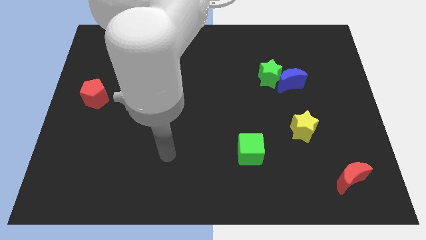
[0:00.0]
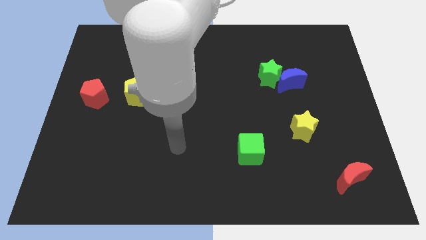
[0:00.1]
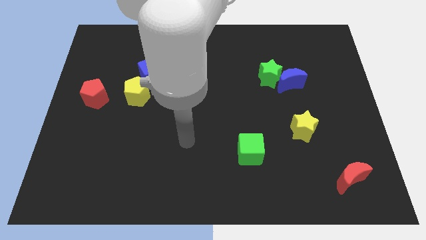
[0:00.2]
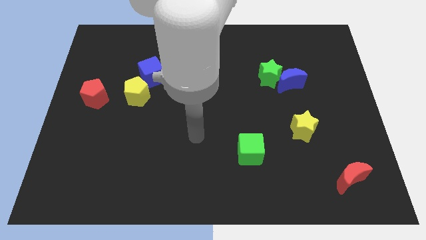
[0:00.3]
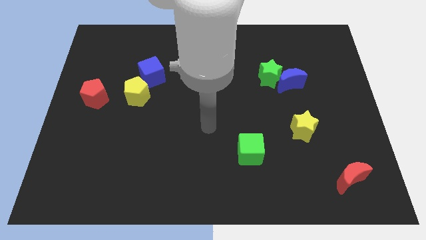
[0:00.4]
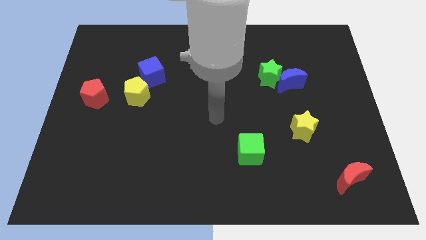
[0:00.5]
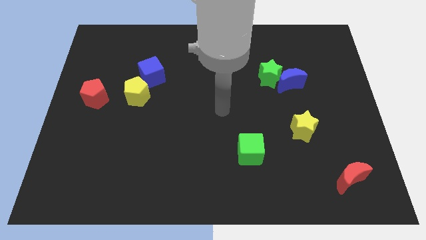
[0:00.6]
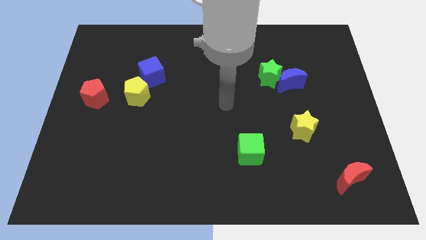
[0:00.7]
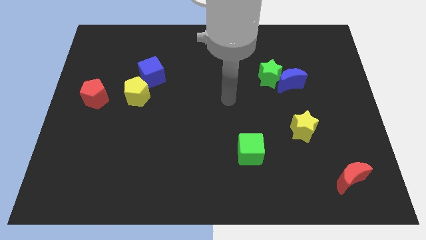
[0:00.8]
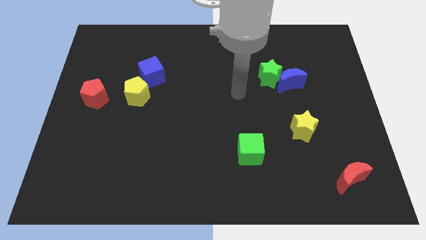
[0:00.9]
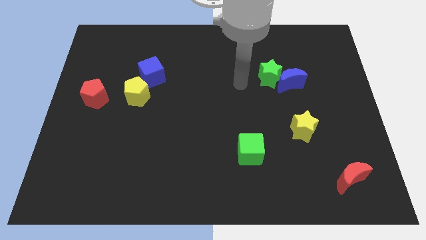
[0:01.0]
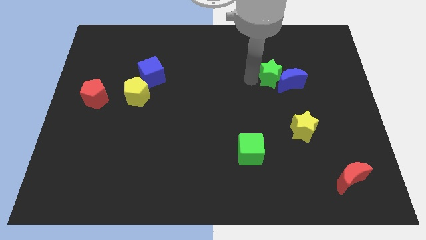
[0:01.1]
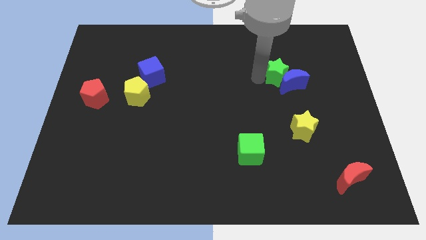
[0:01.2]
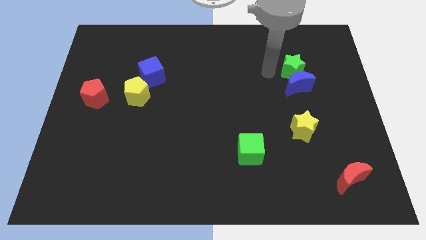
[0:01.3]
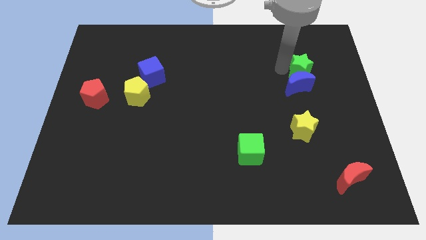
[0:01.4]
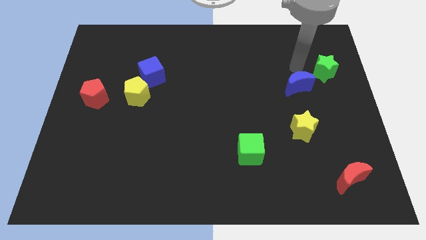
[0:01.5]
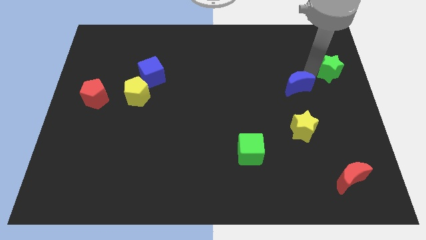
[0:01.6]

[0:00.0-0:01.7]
separate the blue moon from the green star

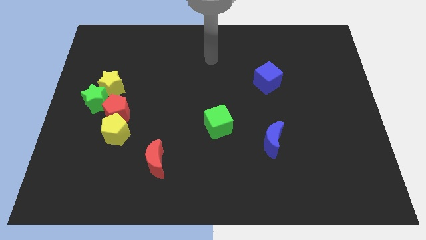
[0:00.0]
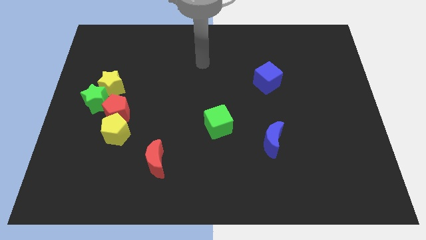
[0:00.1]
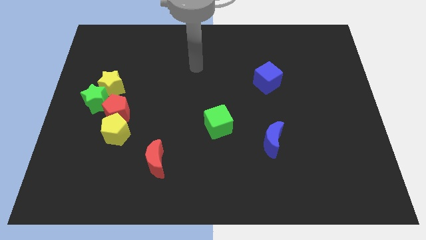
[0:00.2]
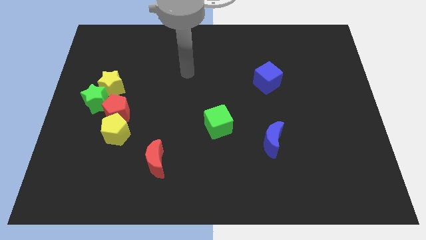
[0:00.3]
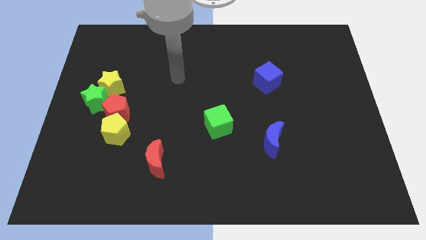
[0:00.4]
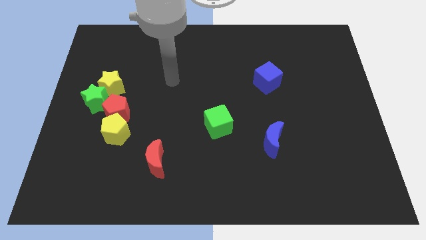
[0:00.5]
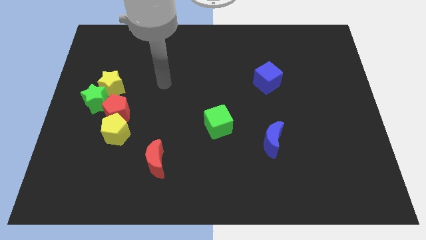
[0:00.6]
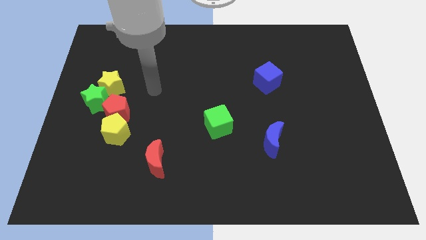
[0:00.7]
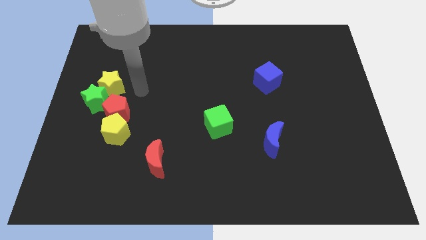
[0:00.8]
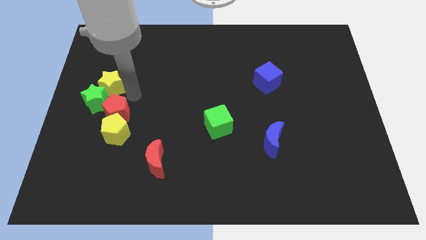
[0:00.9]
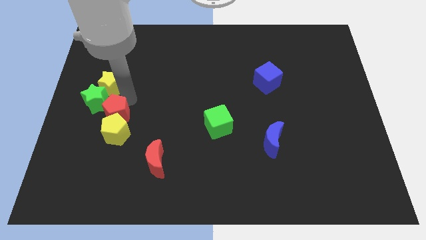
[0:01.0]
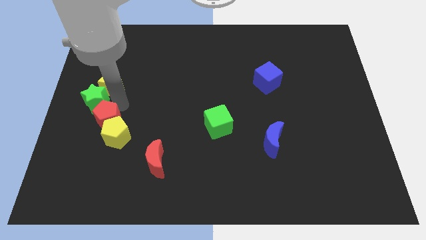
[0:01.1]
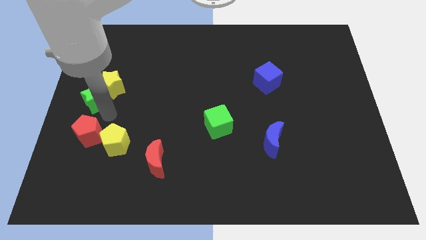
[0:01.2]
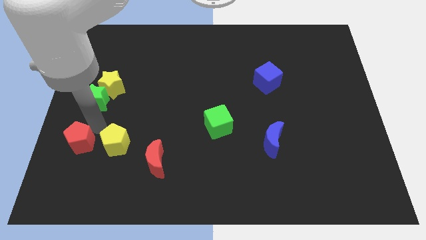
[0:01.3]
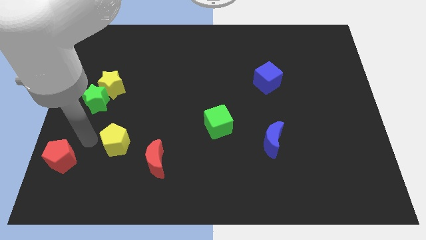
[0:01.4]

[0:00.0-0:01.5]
separate the yellow pentagon from the red pentagon

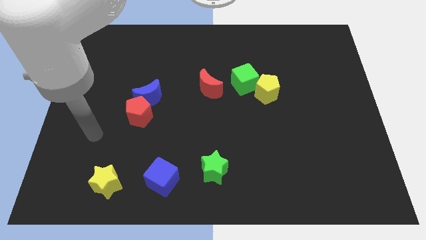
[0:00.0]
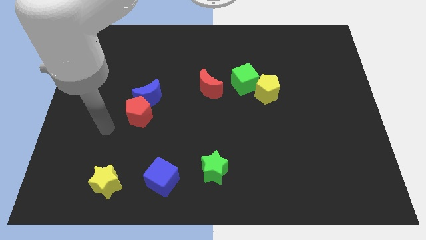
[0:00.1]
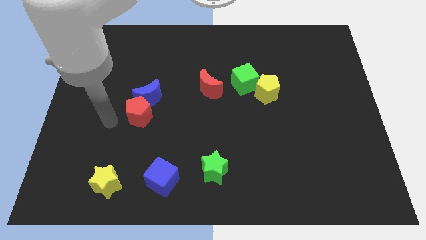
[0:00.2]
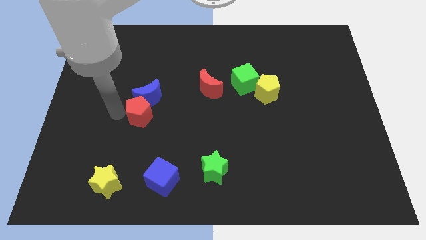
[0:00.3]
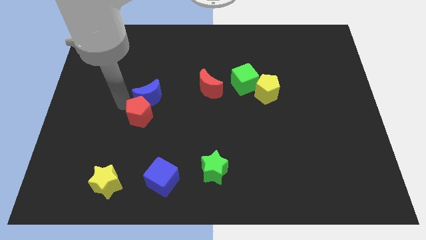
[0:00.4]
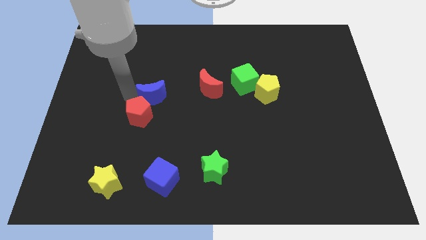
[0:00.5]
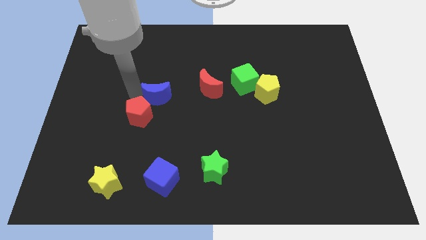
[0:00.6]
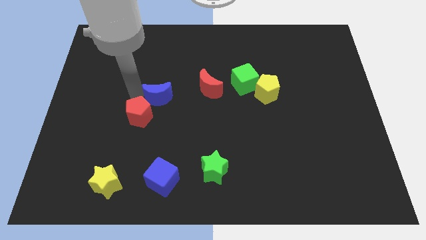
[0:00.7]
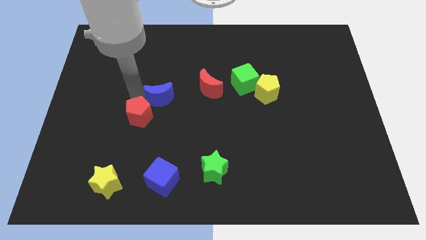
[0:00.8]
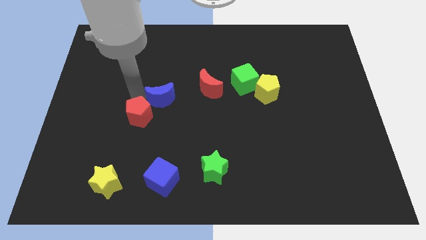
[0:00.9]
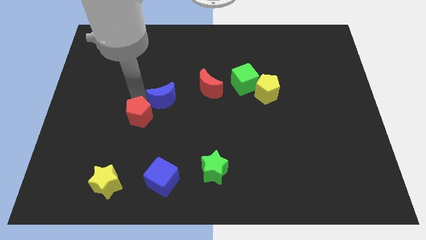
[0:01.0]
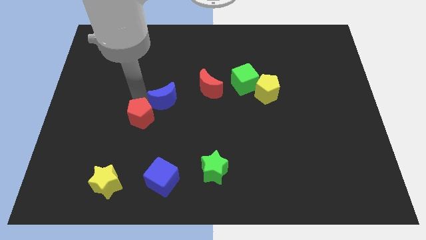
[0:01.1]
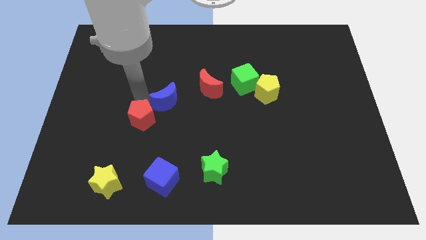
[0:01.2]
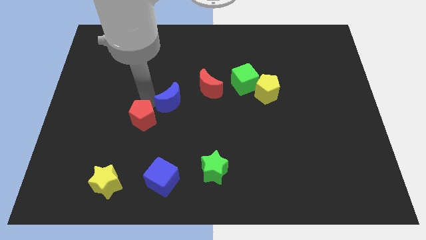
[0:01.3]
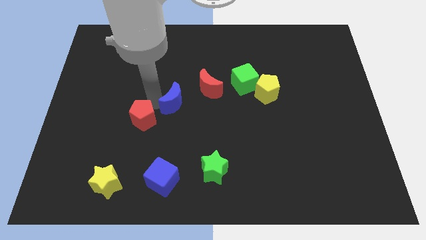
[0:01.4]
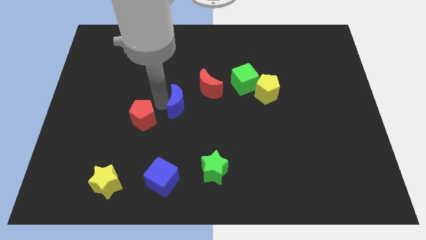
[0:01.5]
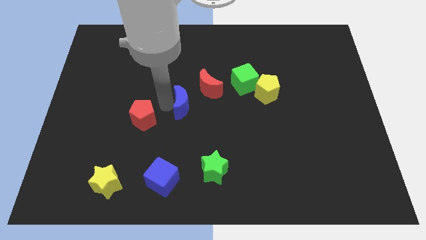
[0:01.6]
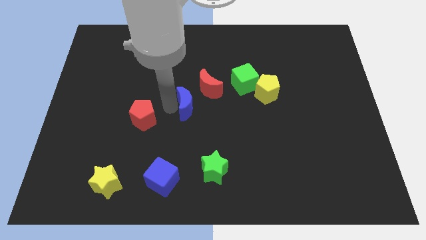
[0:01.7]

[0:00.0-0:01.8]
pull the red pentagon apart from the blue moon

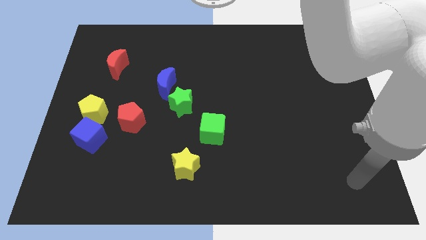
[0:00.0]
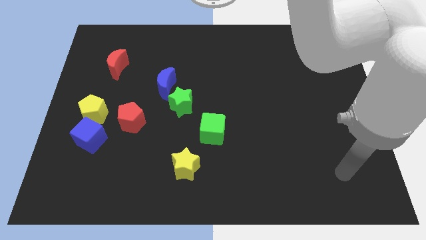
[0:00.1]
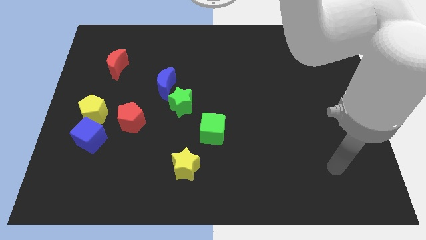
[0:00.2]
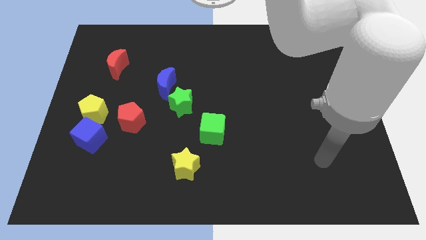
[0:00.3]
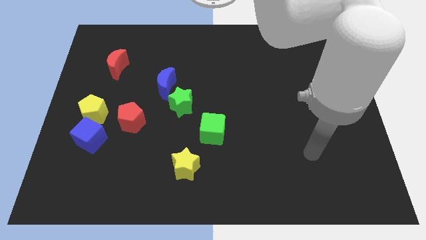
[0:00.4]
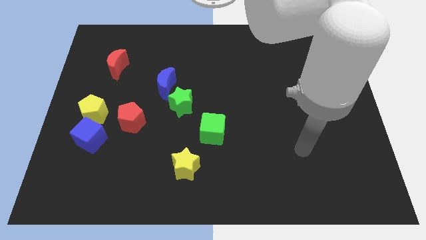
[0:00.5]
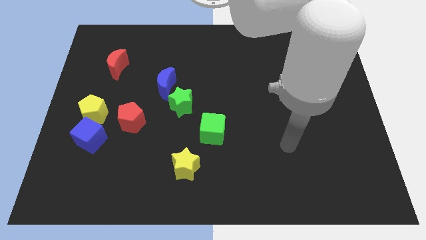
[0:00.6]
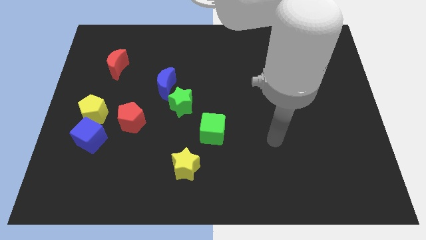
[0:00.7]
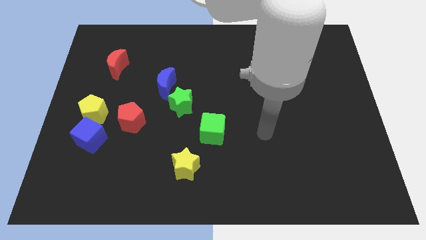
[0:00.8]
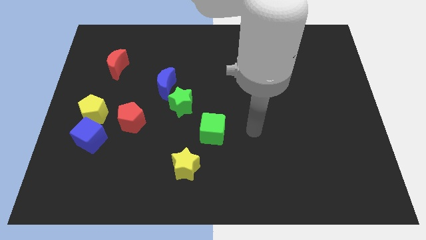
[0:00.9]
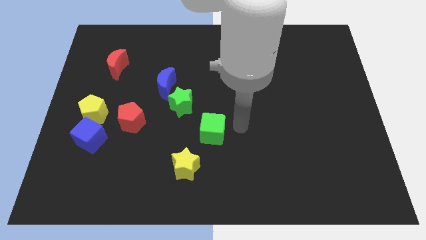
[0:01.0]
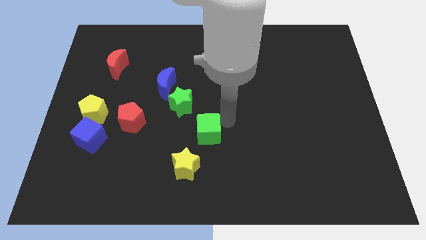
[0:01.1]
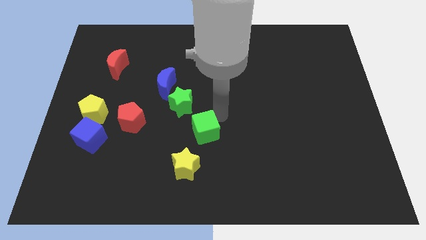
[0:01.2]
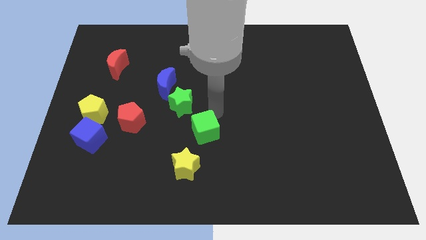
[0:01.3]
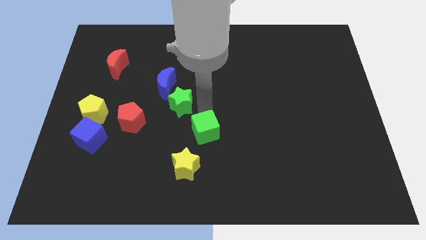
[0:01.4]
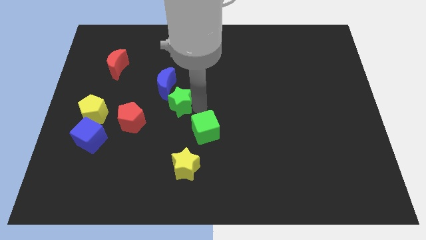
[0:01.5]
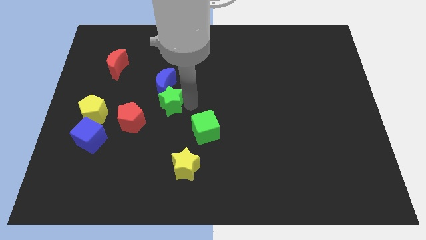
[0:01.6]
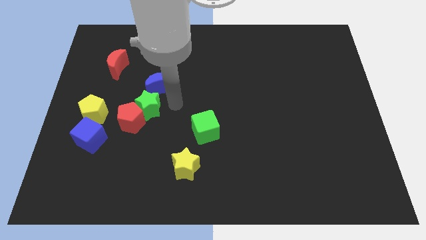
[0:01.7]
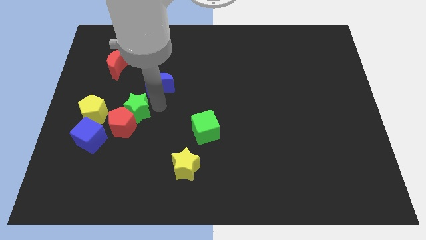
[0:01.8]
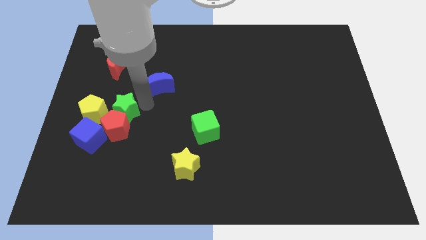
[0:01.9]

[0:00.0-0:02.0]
pull the blue moon apart from the green star

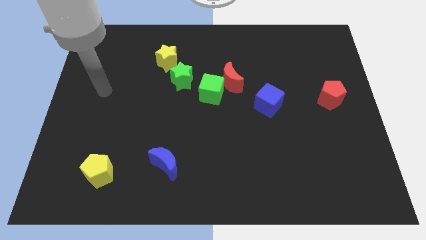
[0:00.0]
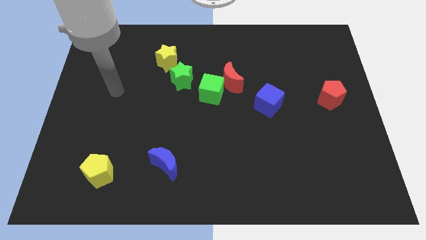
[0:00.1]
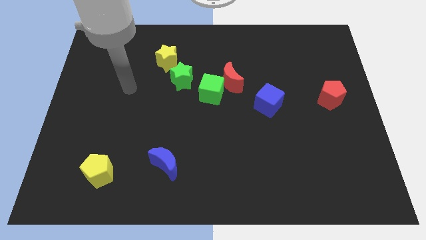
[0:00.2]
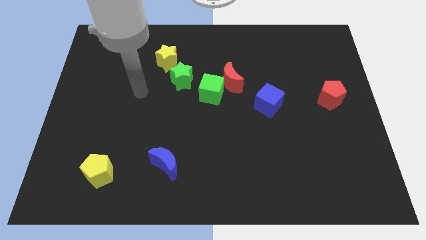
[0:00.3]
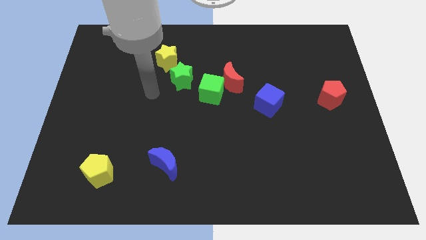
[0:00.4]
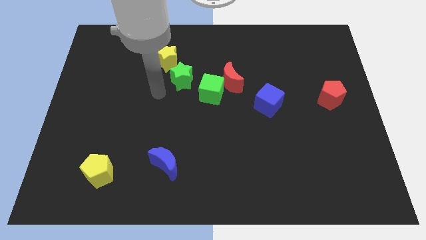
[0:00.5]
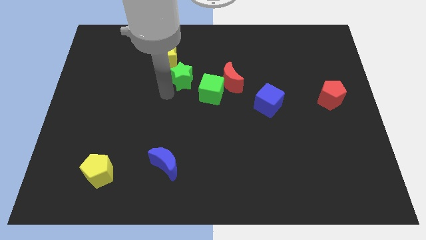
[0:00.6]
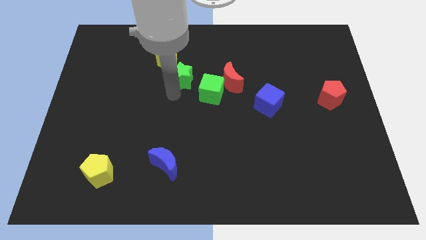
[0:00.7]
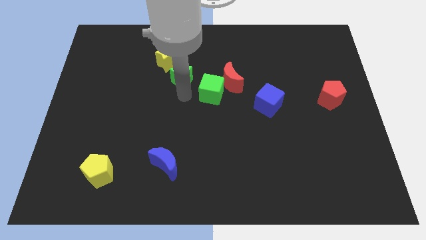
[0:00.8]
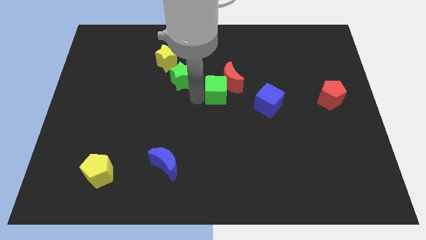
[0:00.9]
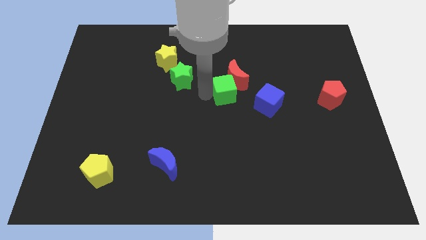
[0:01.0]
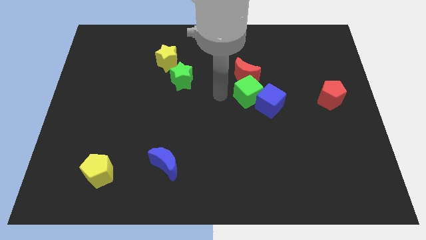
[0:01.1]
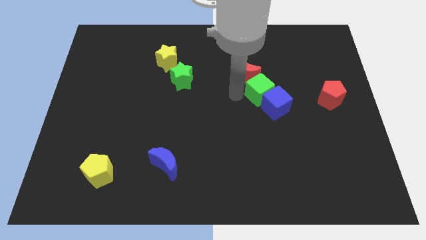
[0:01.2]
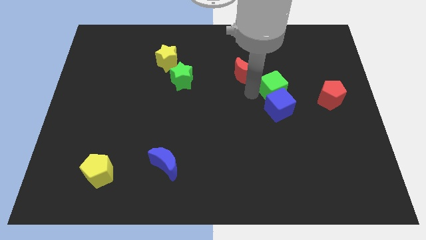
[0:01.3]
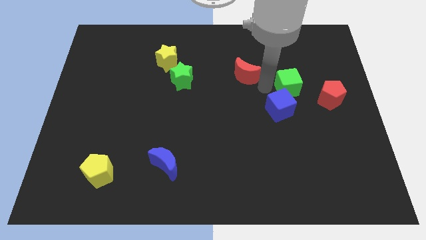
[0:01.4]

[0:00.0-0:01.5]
pull the red moon apart from the green cube

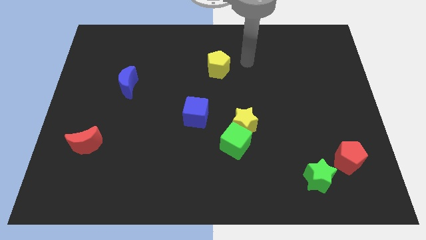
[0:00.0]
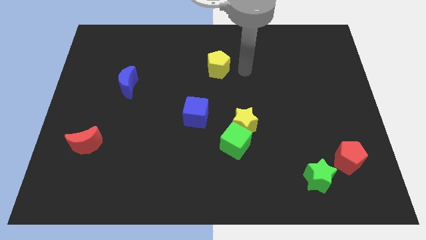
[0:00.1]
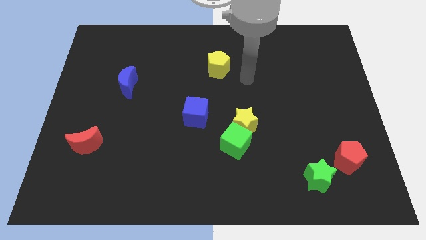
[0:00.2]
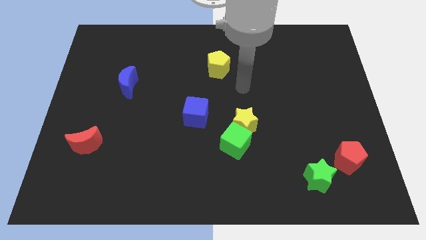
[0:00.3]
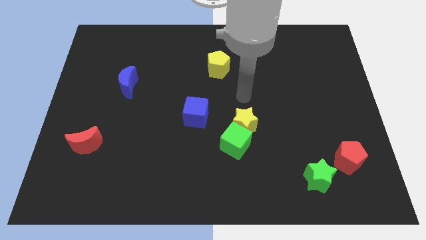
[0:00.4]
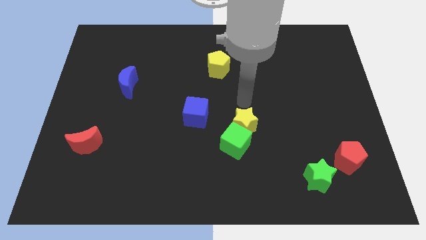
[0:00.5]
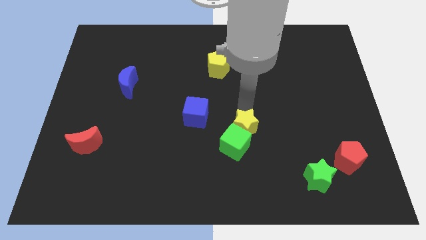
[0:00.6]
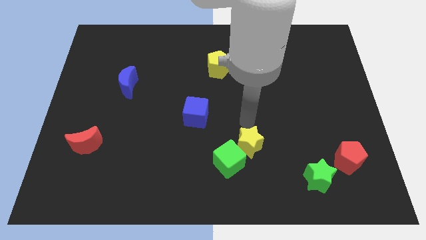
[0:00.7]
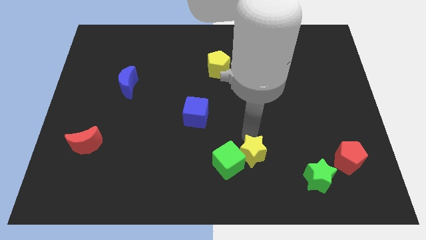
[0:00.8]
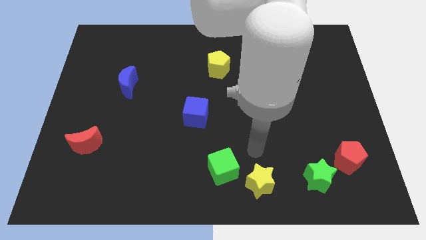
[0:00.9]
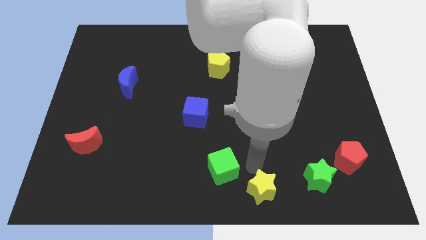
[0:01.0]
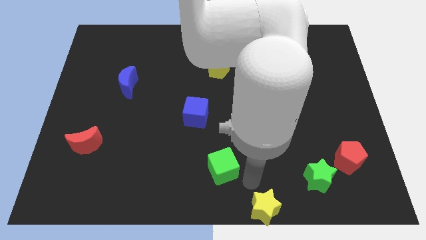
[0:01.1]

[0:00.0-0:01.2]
separate the green cube from the yellow star
